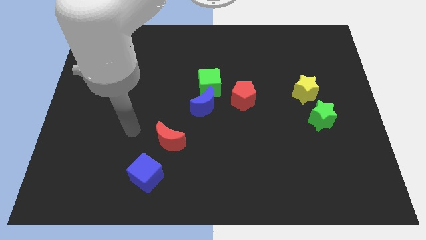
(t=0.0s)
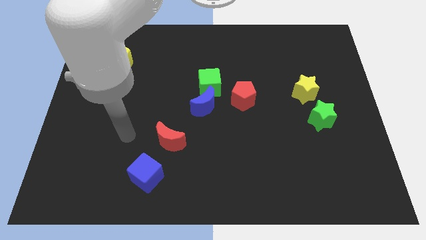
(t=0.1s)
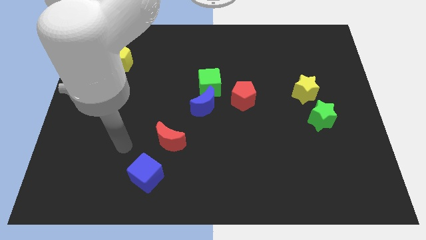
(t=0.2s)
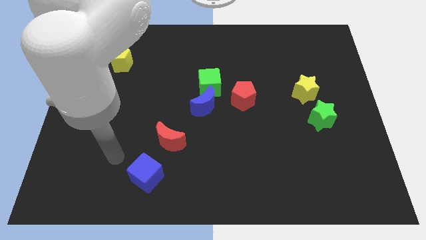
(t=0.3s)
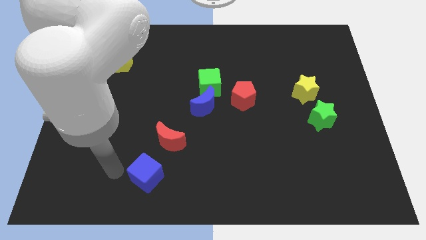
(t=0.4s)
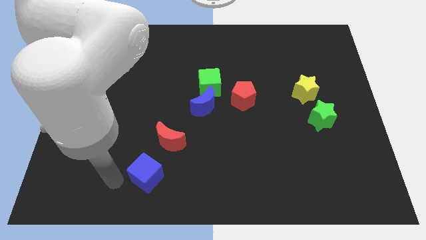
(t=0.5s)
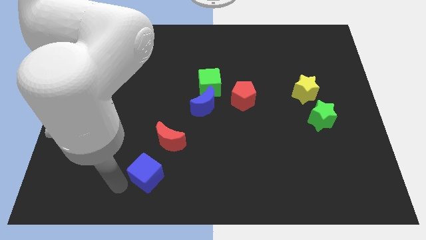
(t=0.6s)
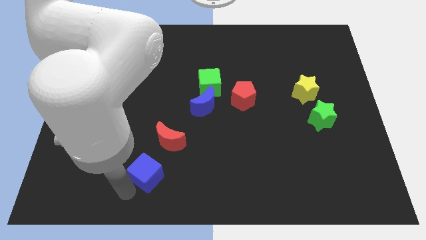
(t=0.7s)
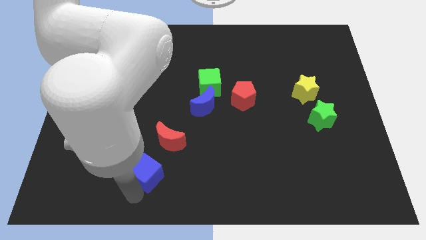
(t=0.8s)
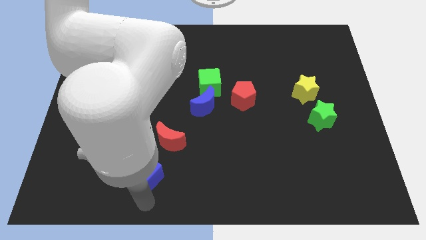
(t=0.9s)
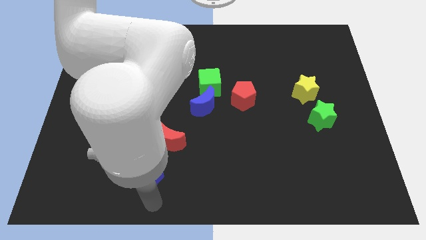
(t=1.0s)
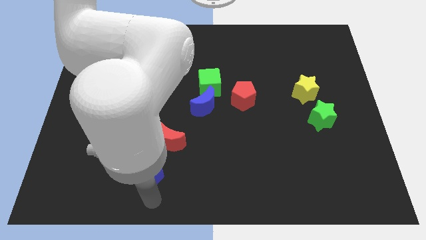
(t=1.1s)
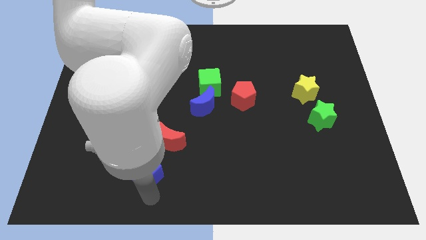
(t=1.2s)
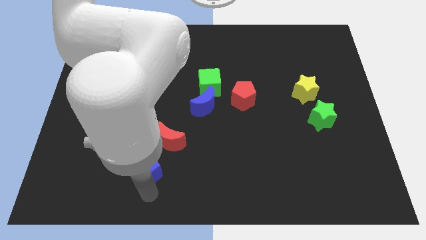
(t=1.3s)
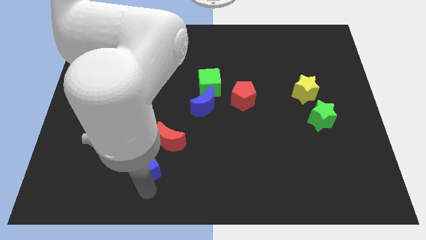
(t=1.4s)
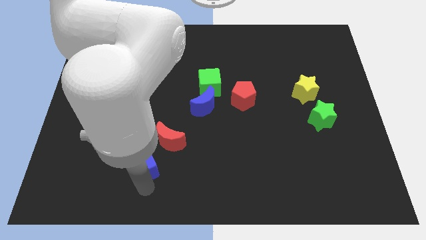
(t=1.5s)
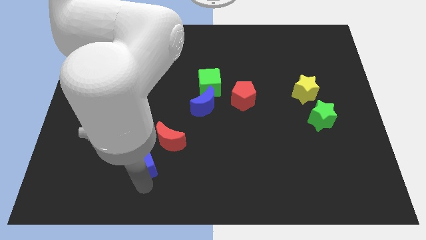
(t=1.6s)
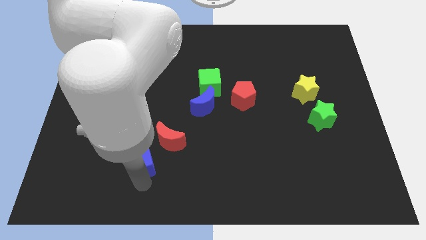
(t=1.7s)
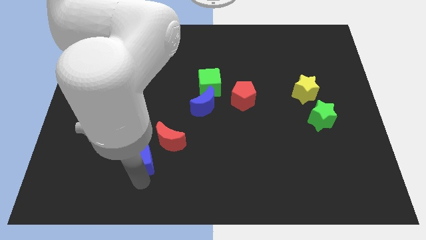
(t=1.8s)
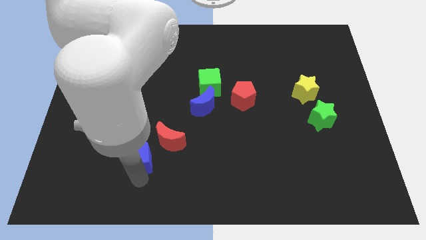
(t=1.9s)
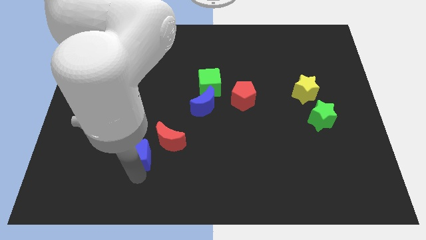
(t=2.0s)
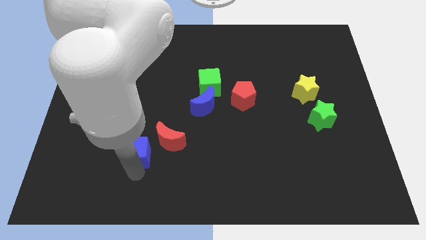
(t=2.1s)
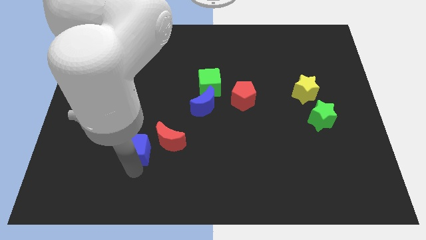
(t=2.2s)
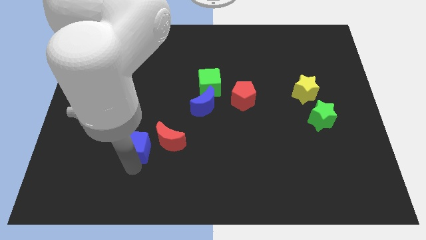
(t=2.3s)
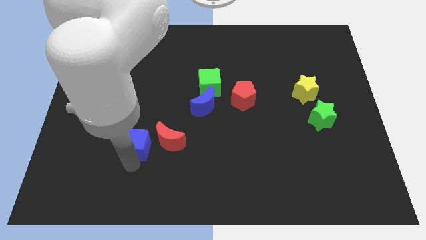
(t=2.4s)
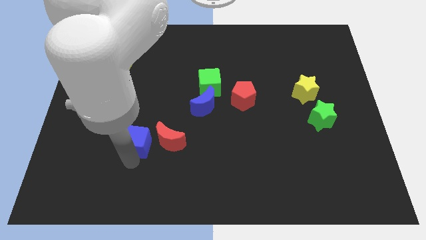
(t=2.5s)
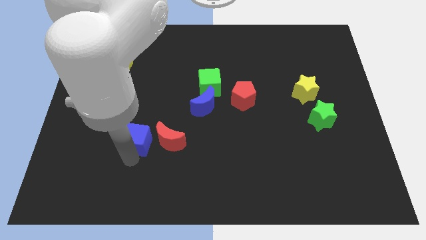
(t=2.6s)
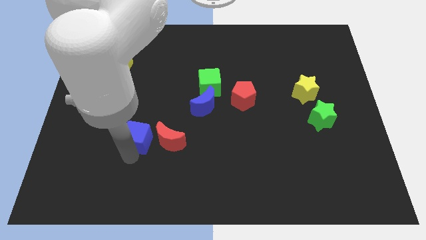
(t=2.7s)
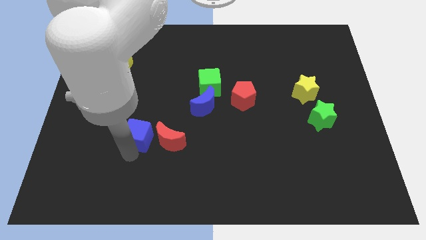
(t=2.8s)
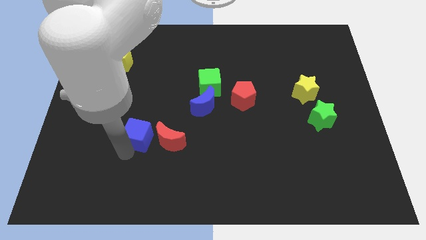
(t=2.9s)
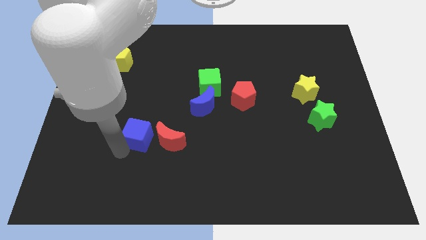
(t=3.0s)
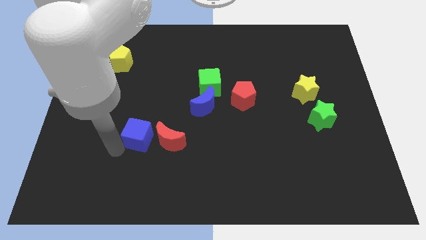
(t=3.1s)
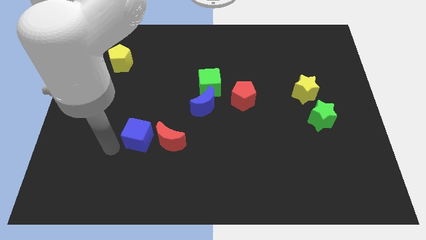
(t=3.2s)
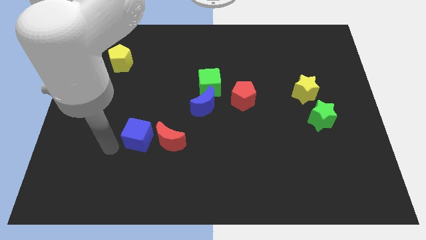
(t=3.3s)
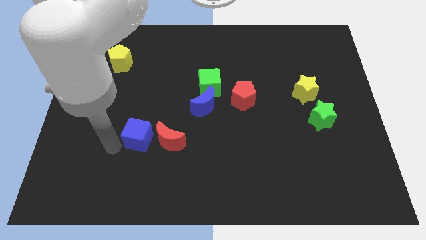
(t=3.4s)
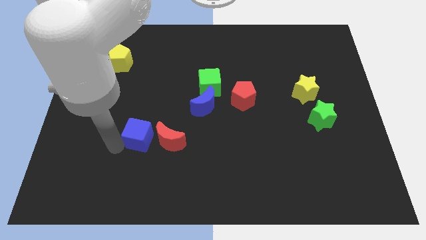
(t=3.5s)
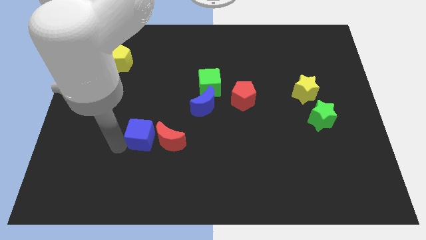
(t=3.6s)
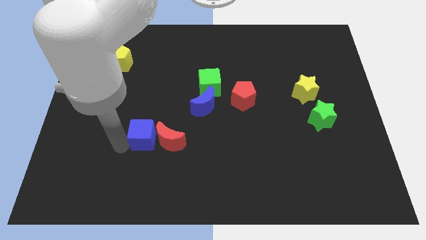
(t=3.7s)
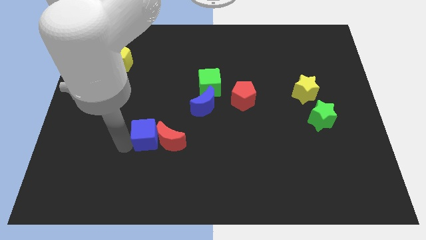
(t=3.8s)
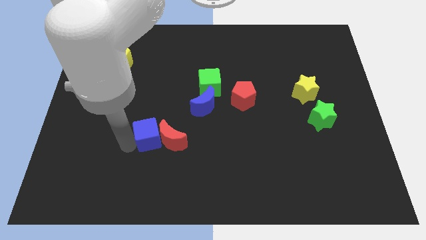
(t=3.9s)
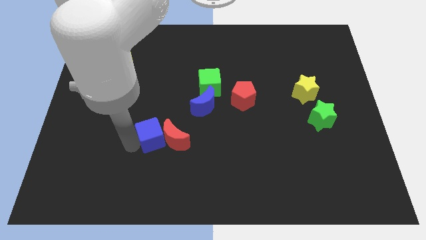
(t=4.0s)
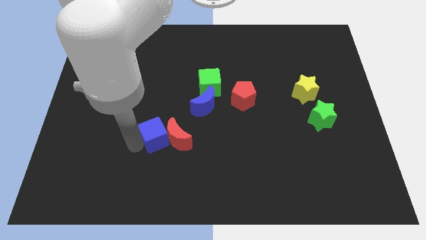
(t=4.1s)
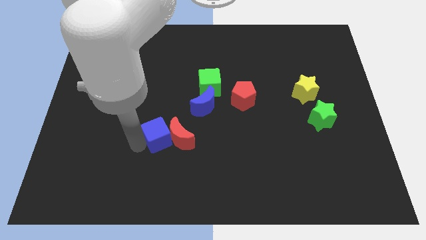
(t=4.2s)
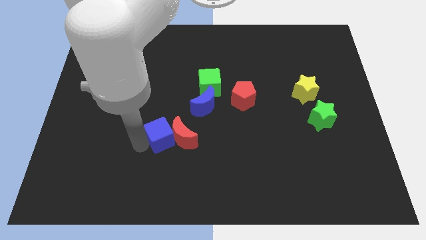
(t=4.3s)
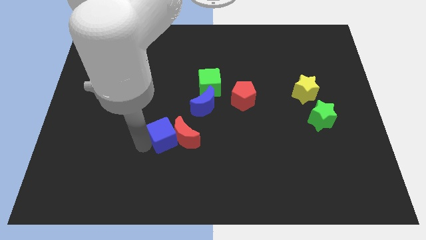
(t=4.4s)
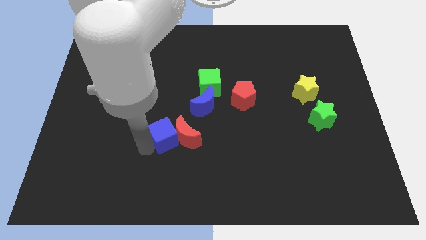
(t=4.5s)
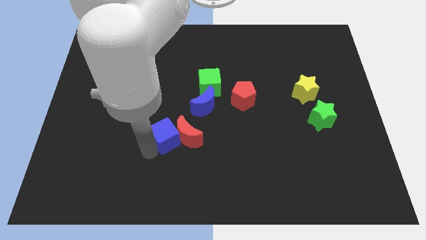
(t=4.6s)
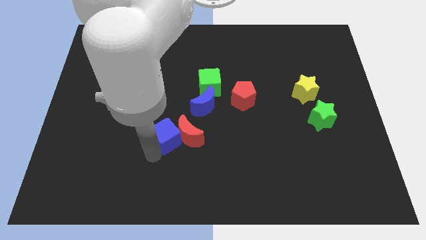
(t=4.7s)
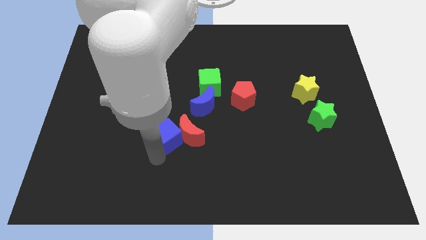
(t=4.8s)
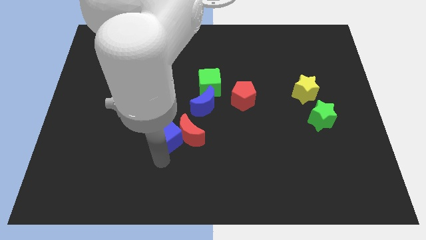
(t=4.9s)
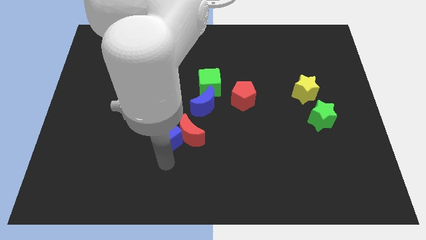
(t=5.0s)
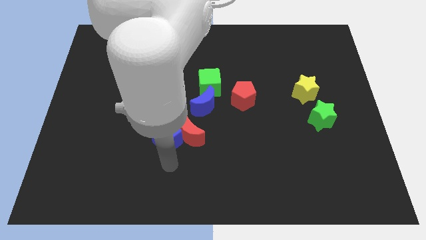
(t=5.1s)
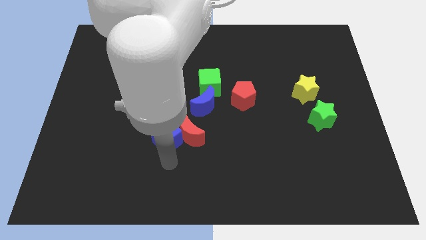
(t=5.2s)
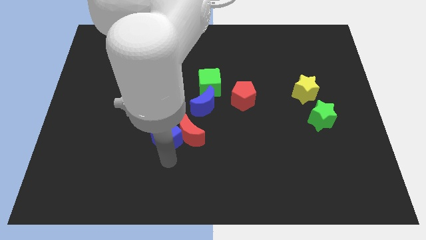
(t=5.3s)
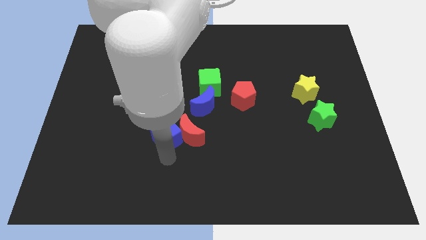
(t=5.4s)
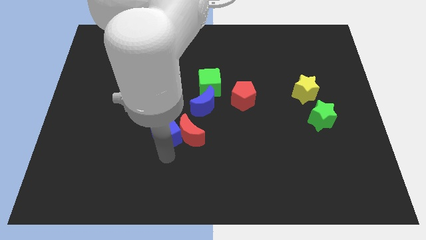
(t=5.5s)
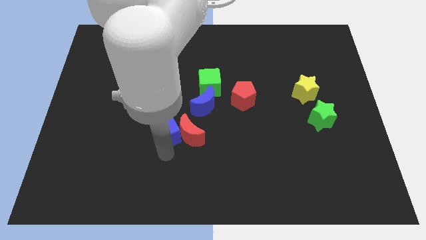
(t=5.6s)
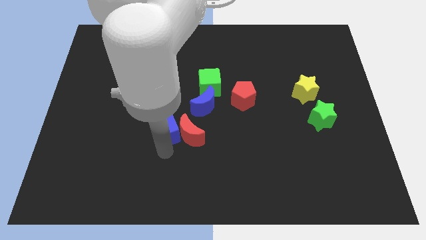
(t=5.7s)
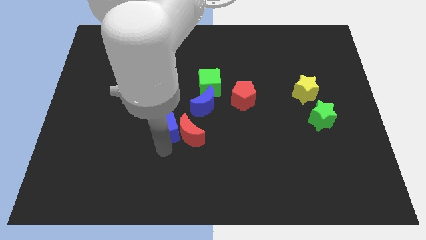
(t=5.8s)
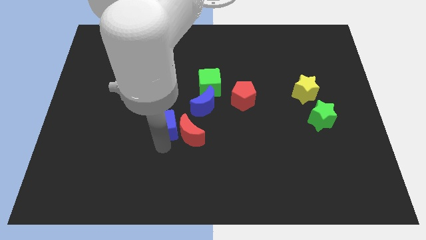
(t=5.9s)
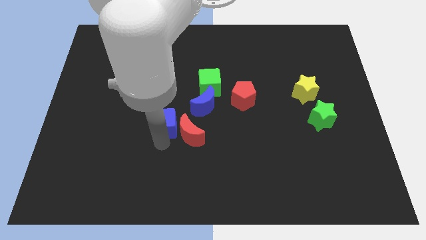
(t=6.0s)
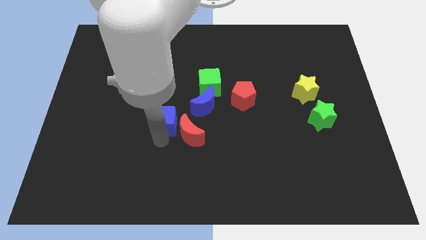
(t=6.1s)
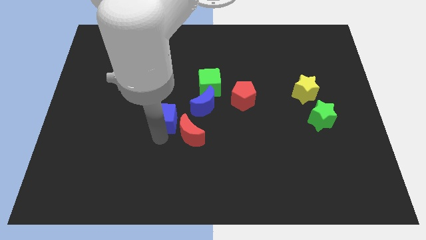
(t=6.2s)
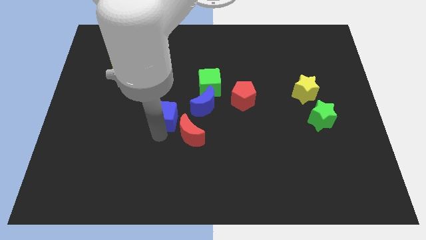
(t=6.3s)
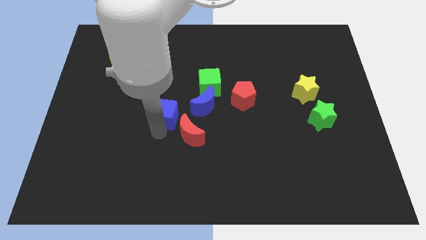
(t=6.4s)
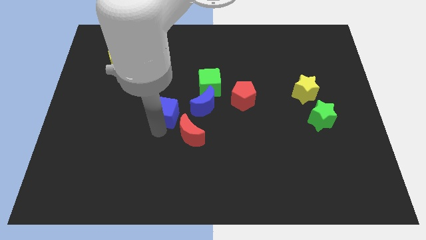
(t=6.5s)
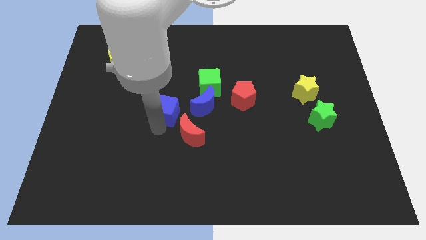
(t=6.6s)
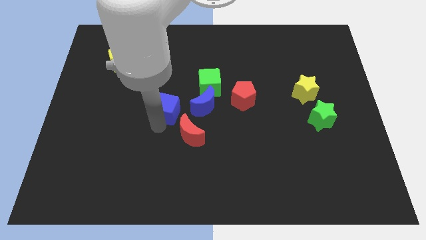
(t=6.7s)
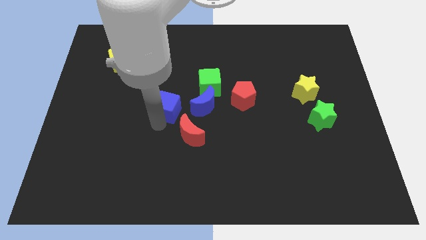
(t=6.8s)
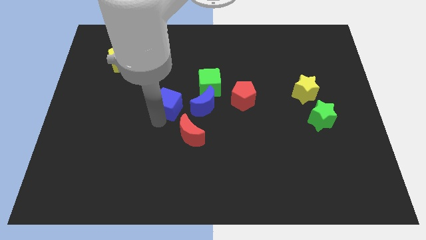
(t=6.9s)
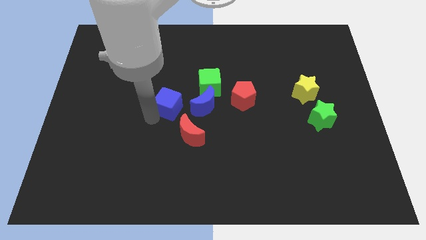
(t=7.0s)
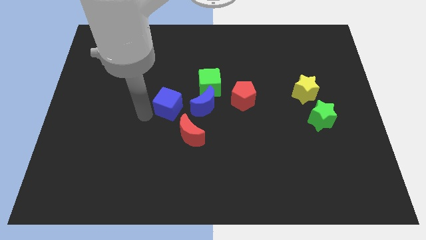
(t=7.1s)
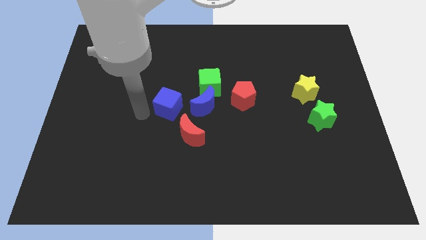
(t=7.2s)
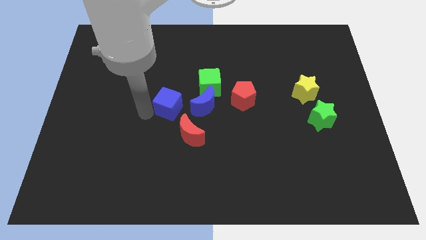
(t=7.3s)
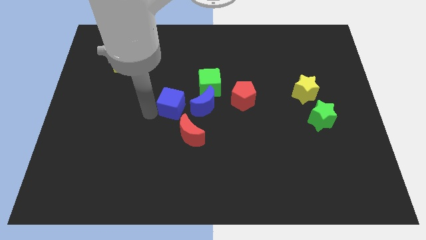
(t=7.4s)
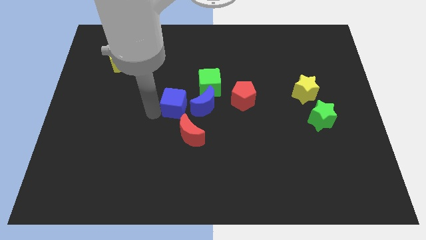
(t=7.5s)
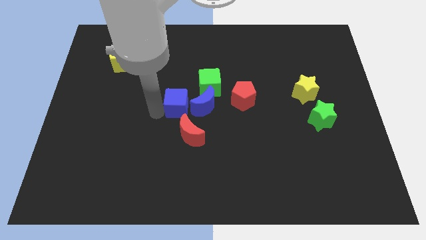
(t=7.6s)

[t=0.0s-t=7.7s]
slide the blue cube to the left side of the red pentagon
